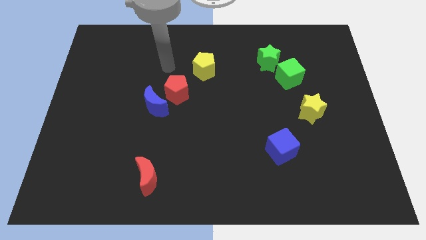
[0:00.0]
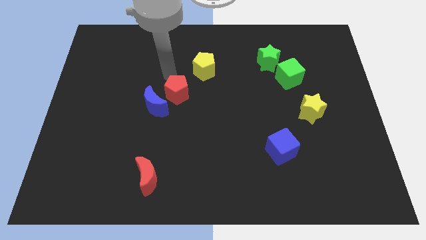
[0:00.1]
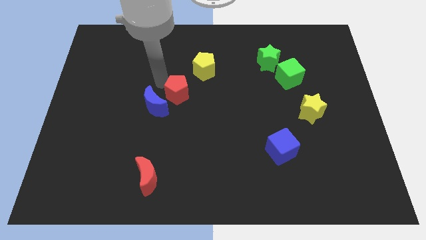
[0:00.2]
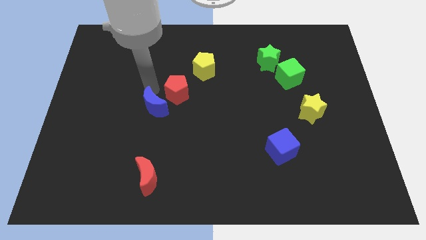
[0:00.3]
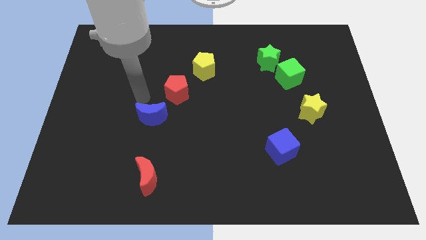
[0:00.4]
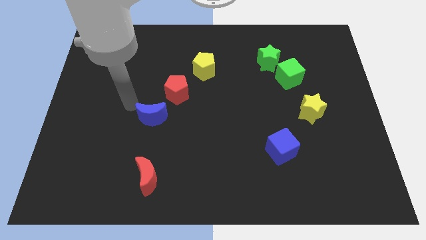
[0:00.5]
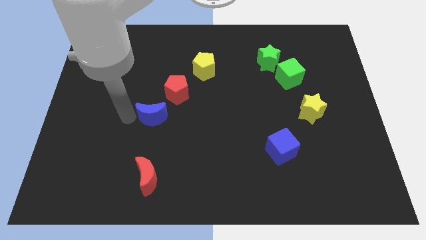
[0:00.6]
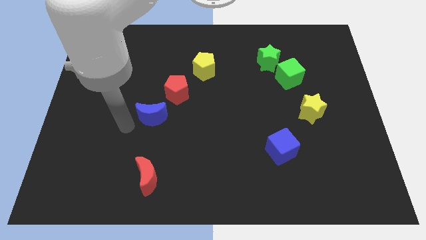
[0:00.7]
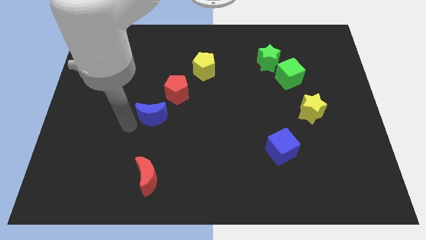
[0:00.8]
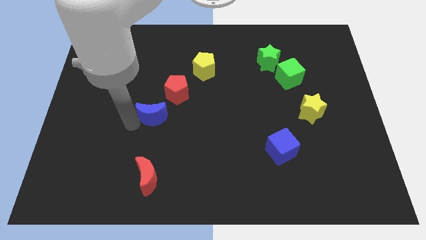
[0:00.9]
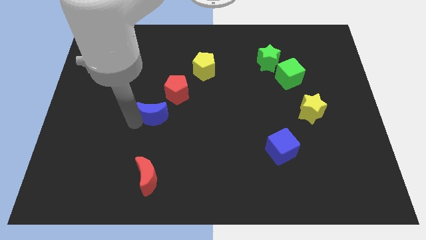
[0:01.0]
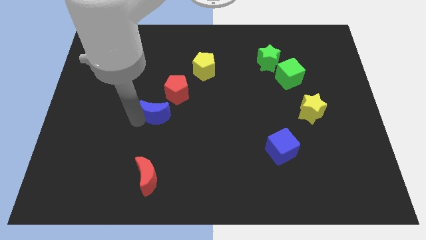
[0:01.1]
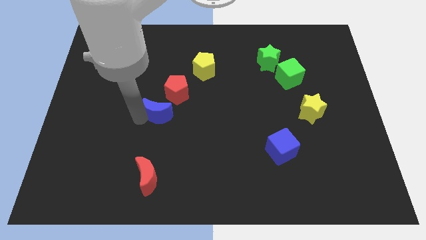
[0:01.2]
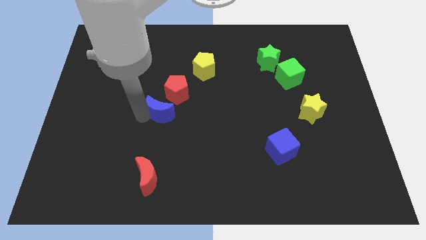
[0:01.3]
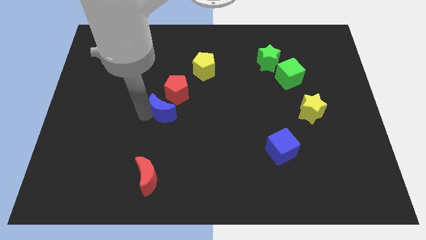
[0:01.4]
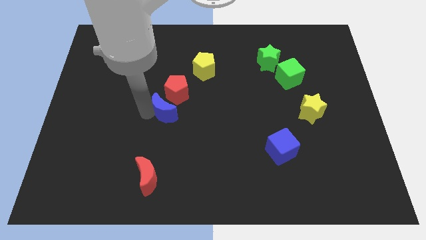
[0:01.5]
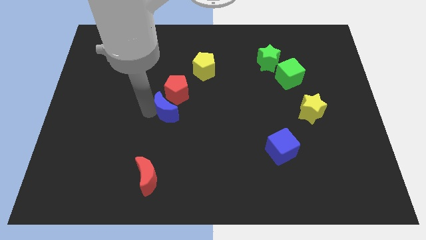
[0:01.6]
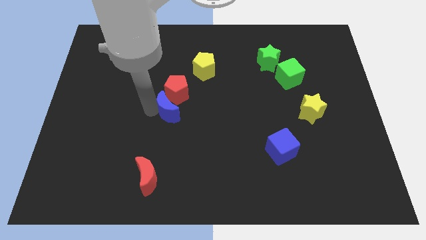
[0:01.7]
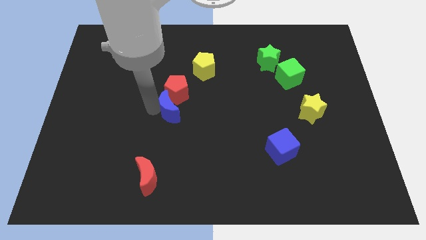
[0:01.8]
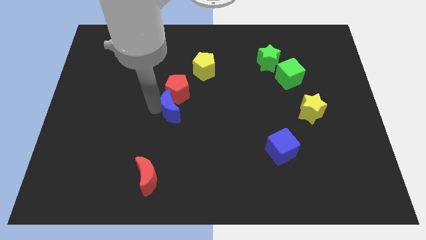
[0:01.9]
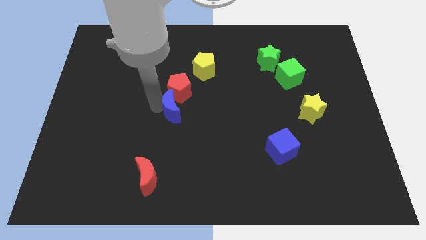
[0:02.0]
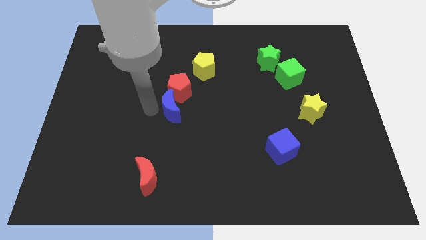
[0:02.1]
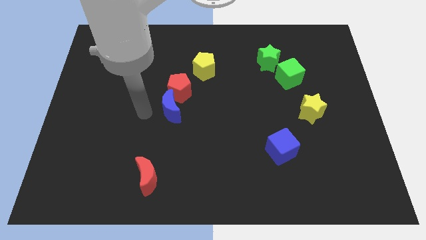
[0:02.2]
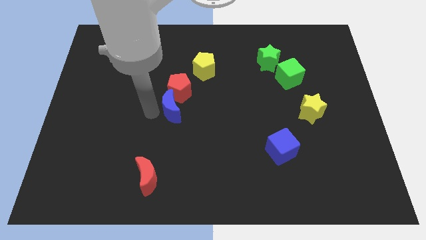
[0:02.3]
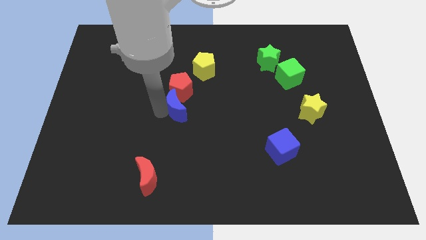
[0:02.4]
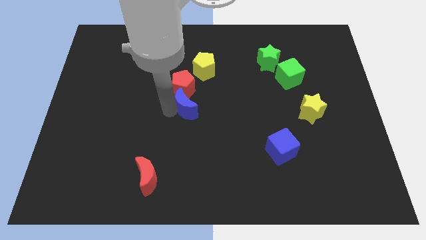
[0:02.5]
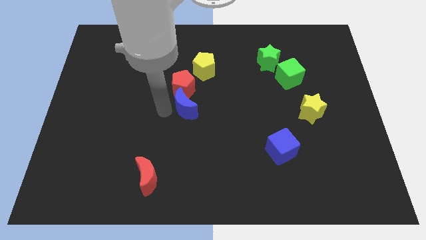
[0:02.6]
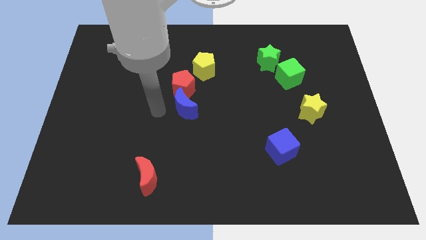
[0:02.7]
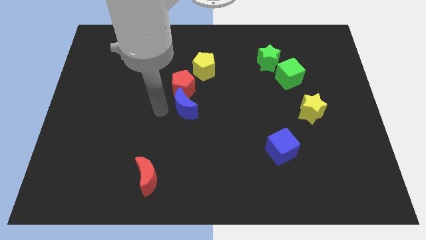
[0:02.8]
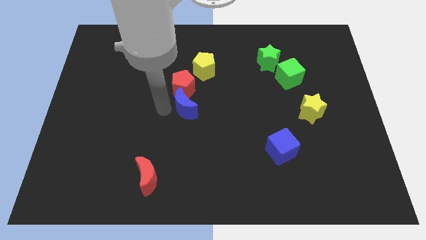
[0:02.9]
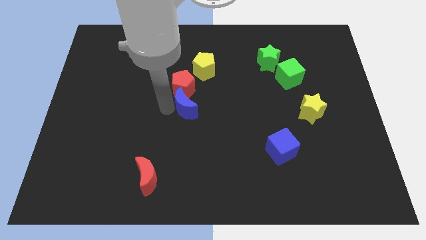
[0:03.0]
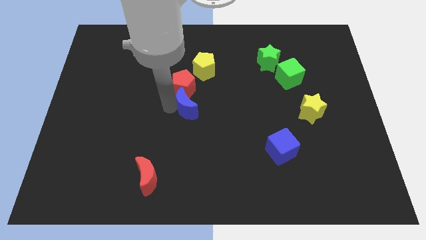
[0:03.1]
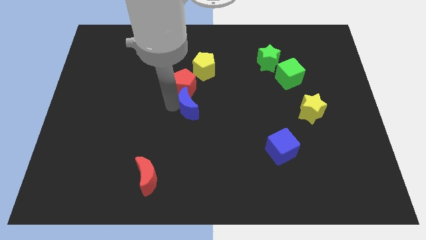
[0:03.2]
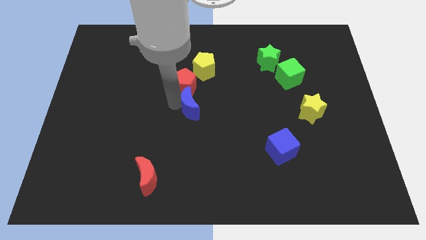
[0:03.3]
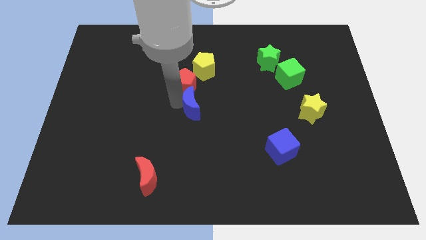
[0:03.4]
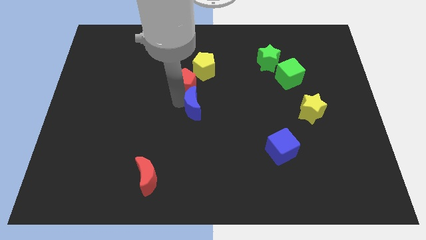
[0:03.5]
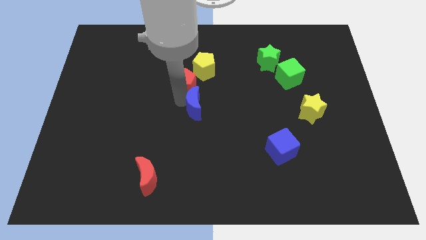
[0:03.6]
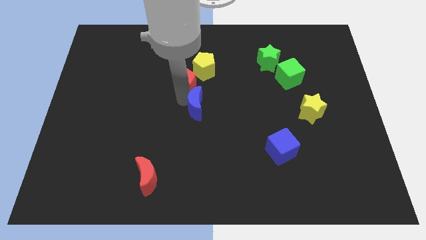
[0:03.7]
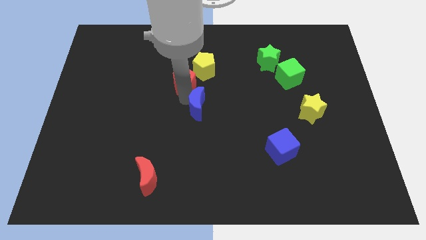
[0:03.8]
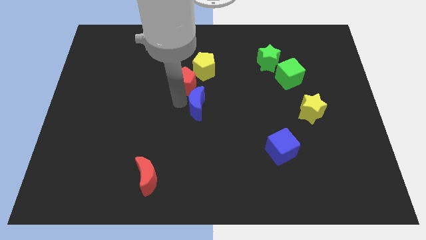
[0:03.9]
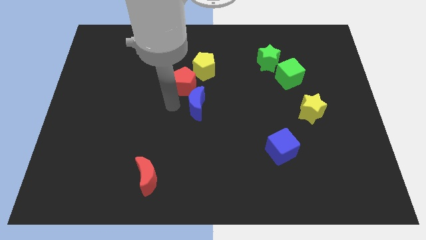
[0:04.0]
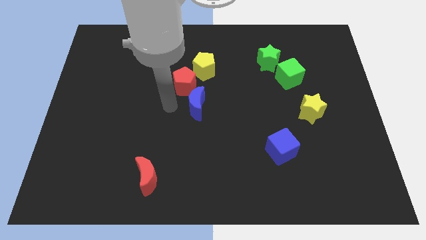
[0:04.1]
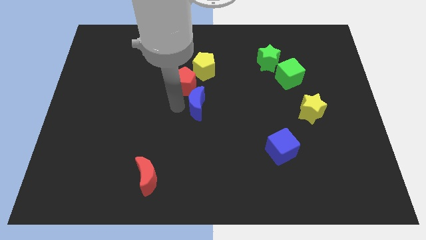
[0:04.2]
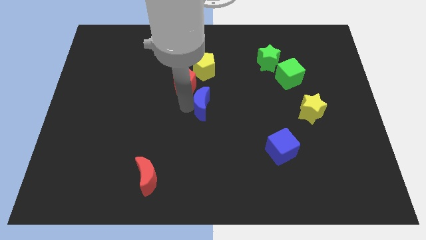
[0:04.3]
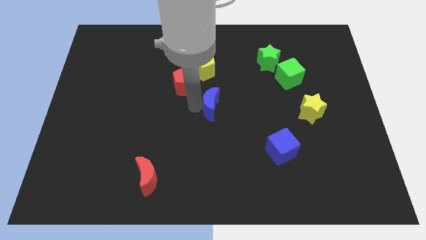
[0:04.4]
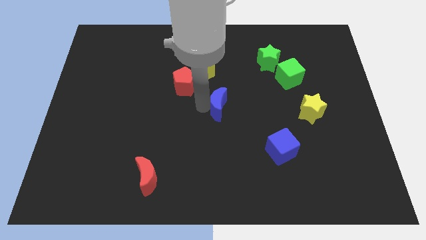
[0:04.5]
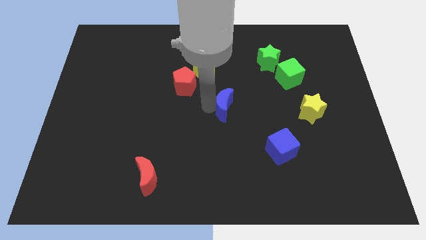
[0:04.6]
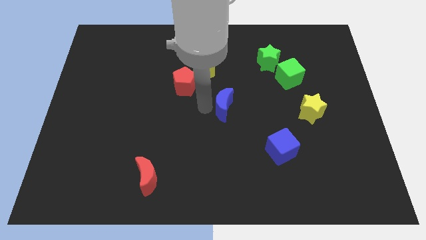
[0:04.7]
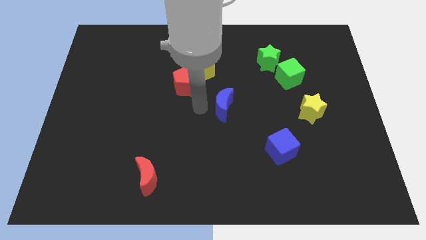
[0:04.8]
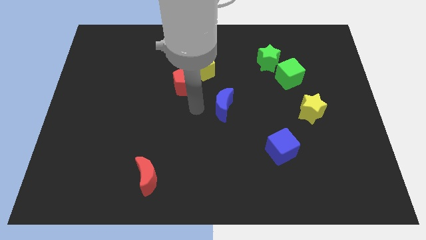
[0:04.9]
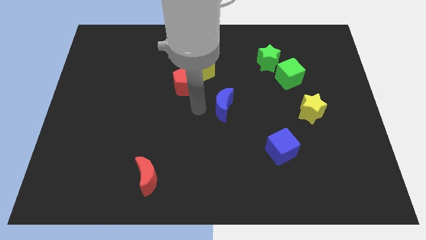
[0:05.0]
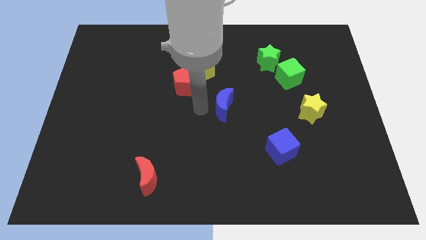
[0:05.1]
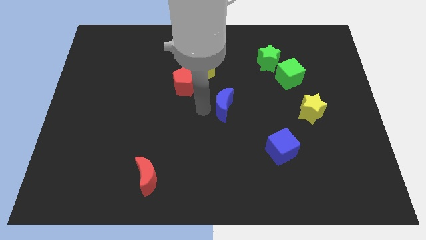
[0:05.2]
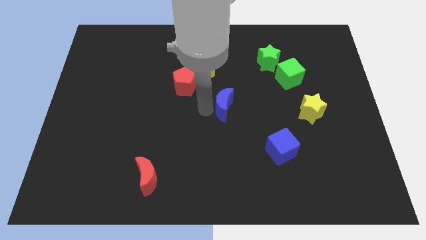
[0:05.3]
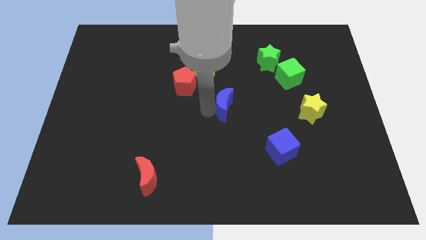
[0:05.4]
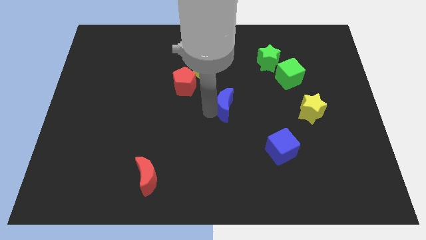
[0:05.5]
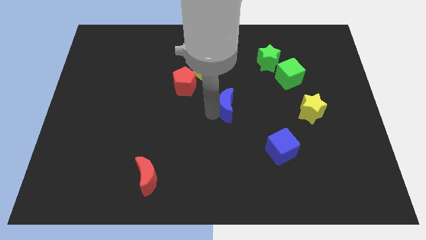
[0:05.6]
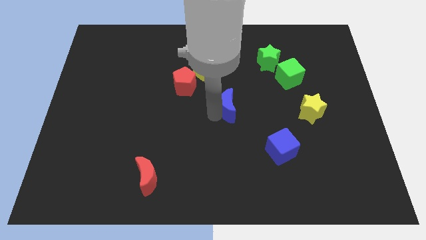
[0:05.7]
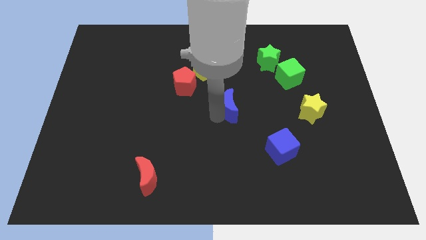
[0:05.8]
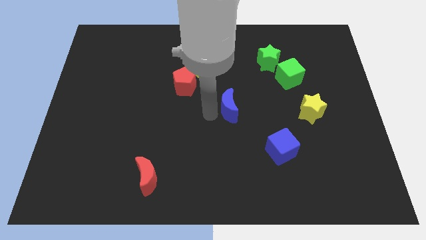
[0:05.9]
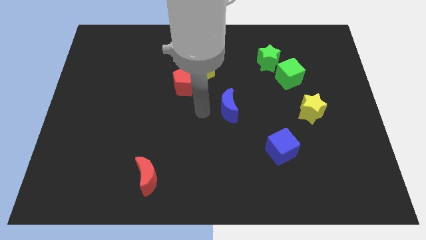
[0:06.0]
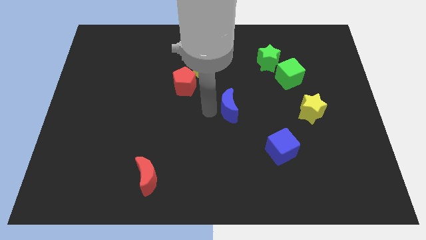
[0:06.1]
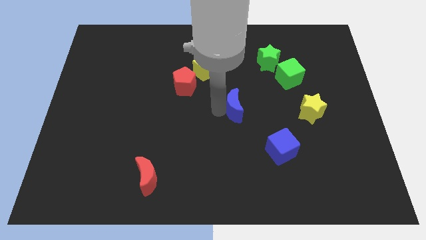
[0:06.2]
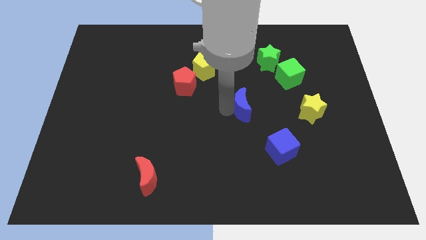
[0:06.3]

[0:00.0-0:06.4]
move the blue moon to the right

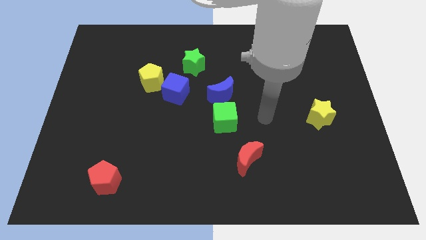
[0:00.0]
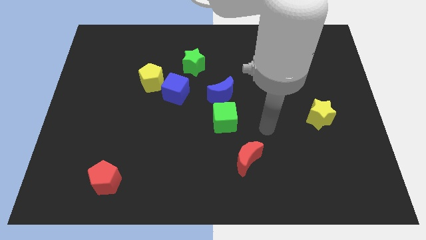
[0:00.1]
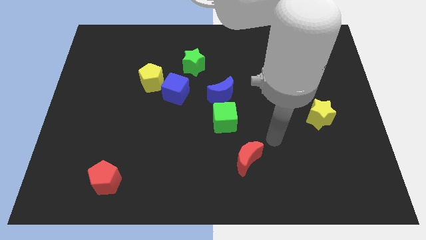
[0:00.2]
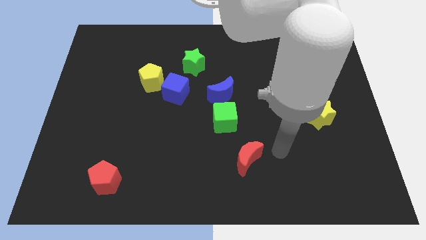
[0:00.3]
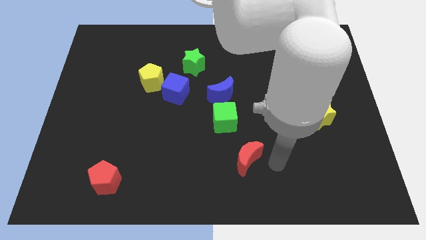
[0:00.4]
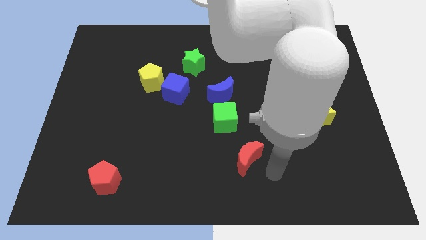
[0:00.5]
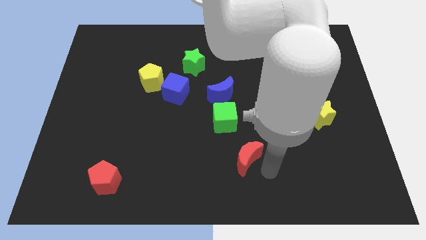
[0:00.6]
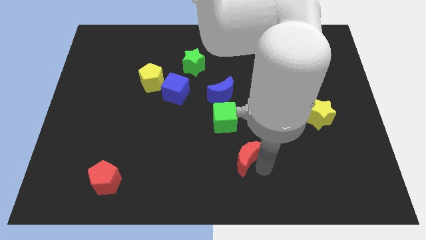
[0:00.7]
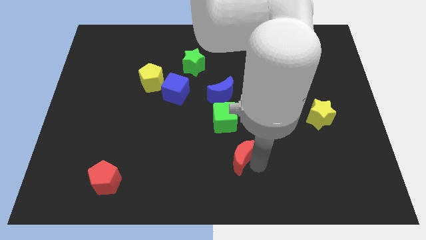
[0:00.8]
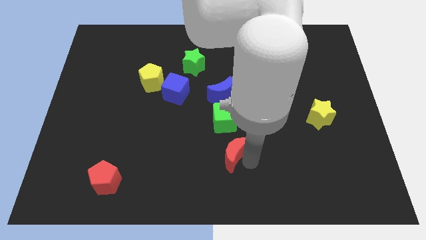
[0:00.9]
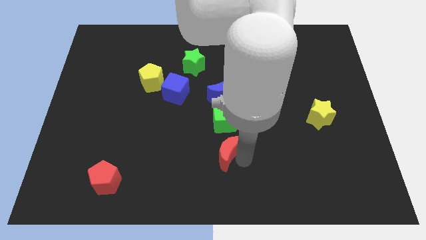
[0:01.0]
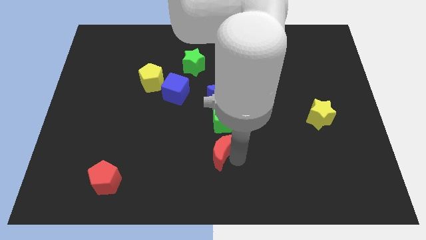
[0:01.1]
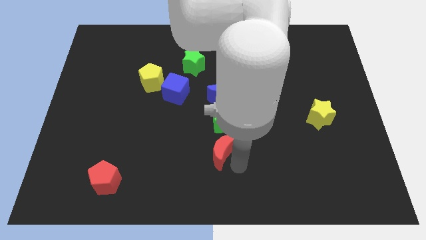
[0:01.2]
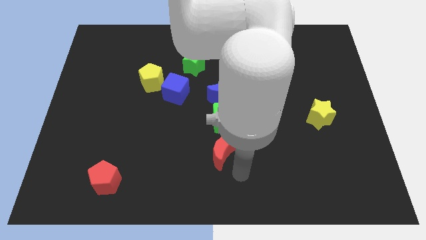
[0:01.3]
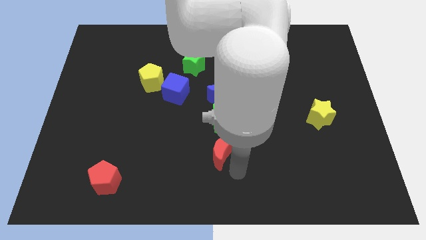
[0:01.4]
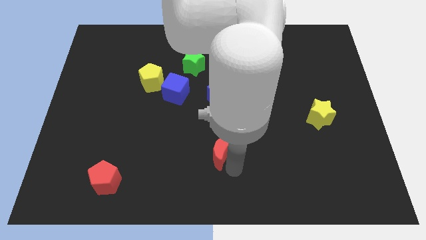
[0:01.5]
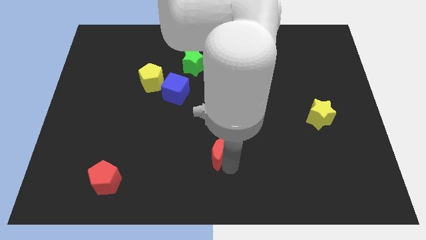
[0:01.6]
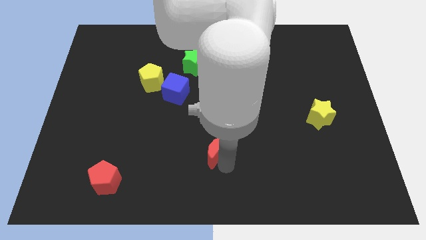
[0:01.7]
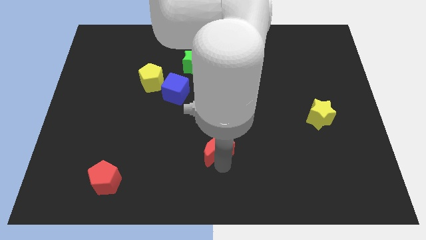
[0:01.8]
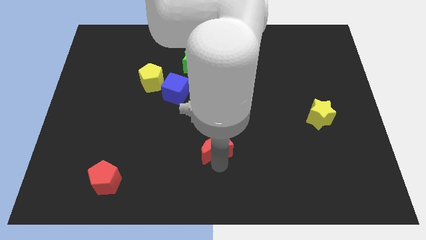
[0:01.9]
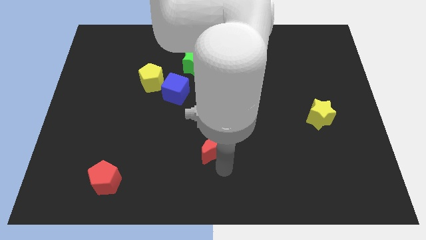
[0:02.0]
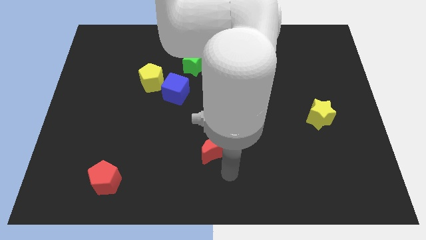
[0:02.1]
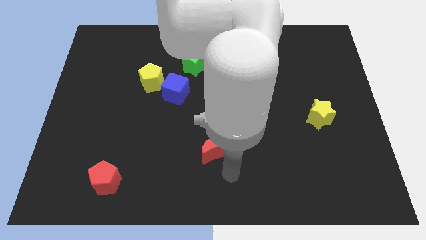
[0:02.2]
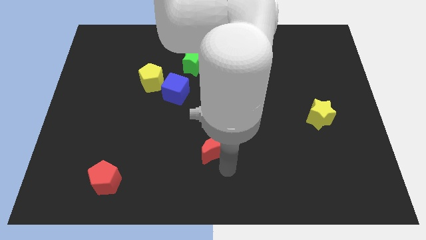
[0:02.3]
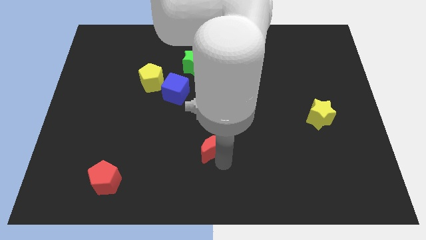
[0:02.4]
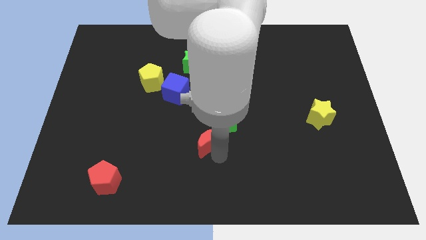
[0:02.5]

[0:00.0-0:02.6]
slide the red moon up and then to the left a bit
